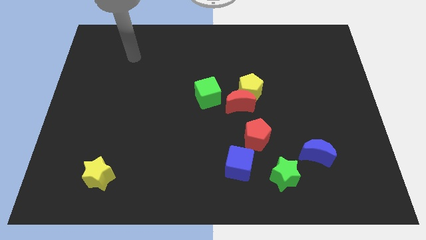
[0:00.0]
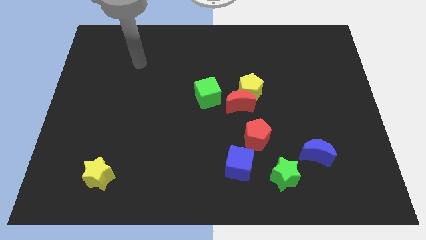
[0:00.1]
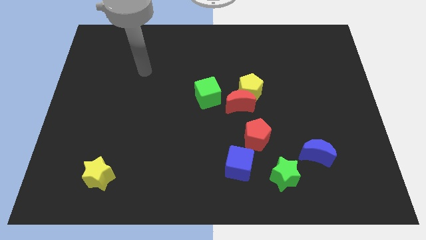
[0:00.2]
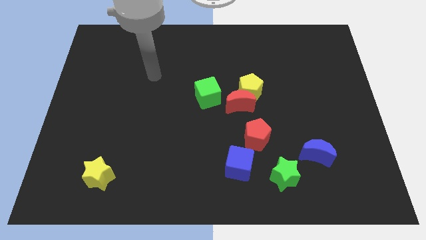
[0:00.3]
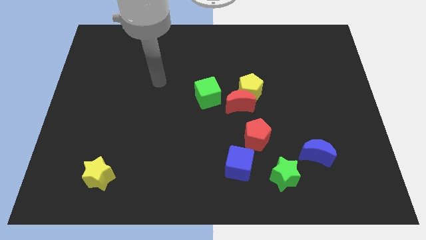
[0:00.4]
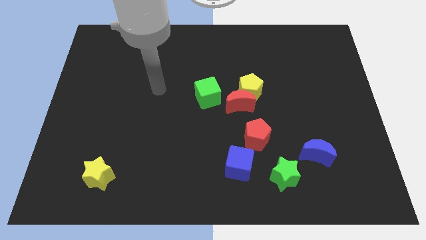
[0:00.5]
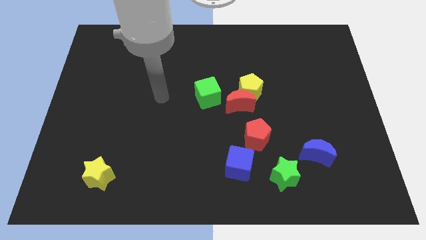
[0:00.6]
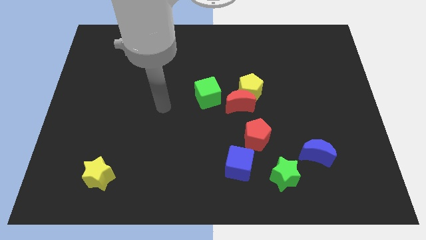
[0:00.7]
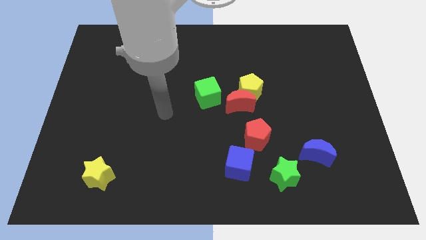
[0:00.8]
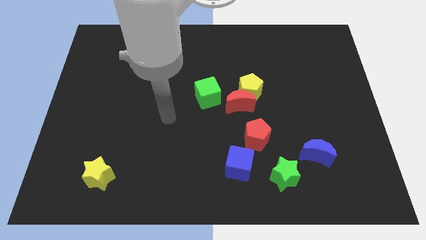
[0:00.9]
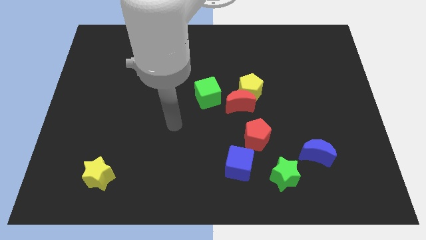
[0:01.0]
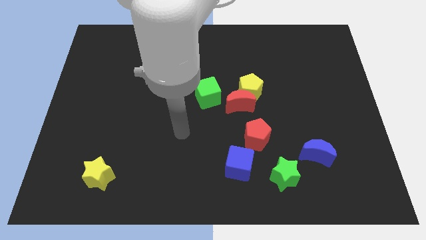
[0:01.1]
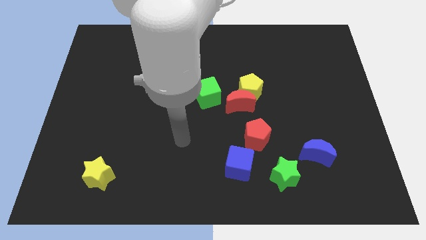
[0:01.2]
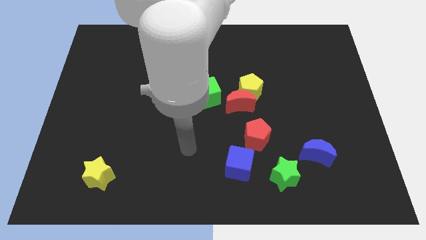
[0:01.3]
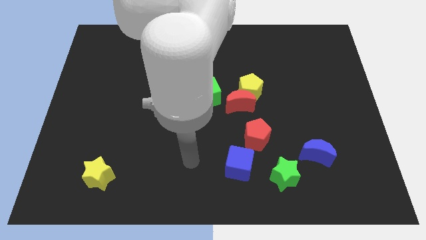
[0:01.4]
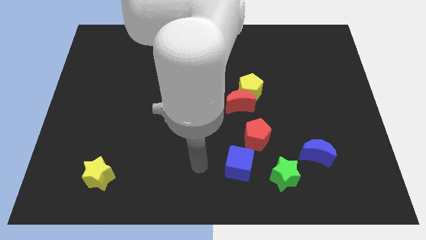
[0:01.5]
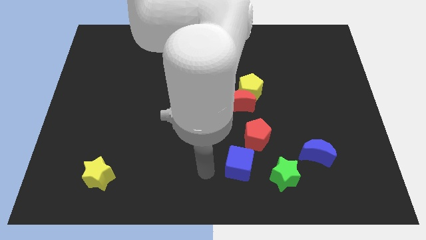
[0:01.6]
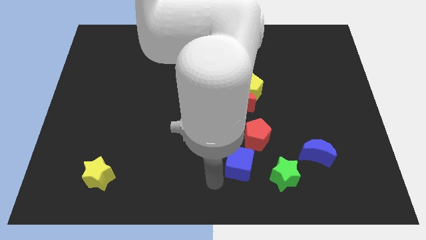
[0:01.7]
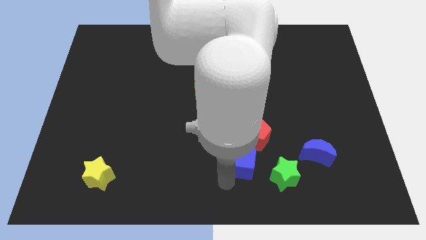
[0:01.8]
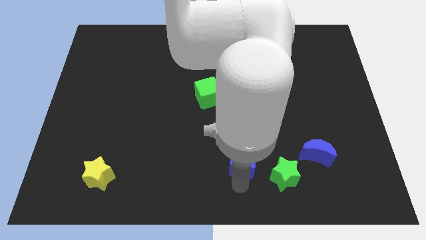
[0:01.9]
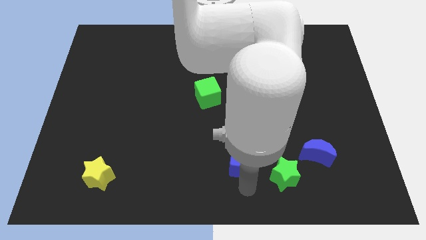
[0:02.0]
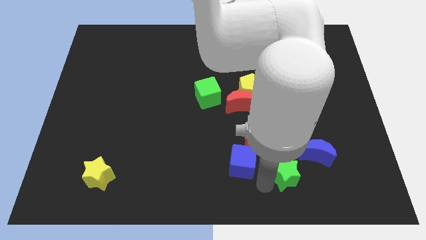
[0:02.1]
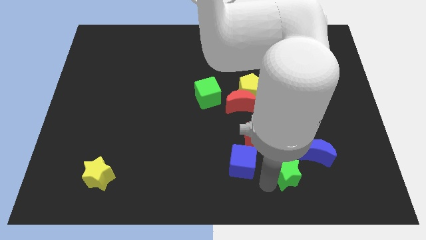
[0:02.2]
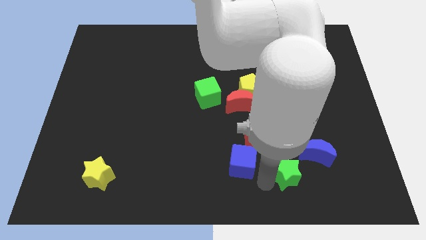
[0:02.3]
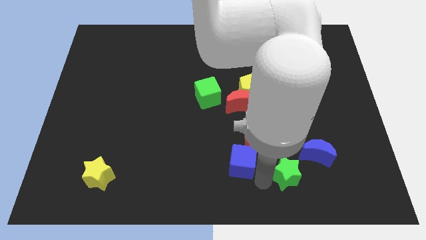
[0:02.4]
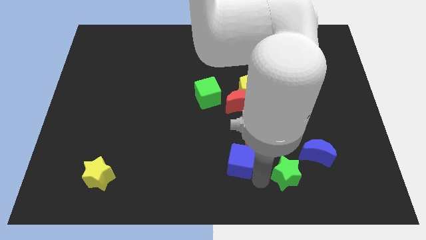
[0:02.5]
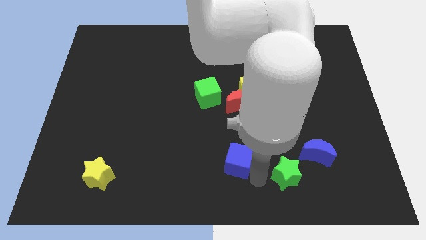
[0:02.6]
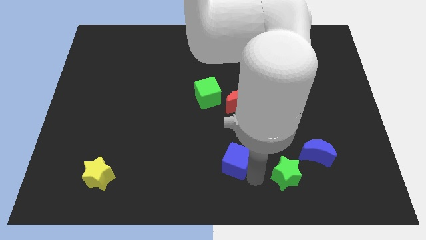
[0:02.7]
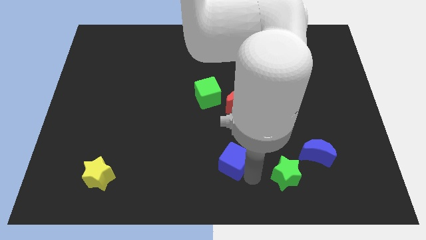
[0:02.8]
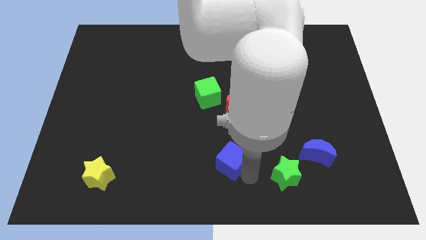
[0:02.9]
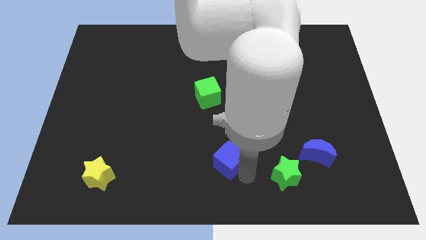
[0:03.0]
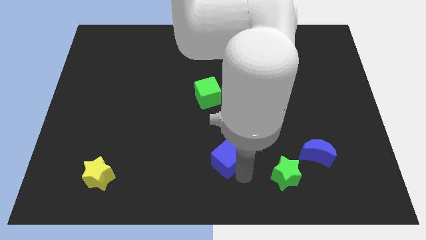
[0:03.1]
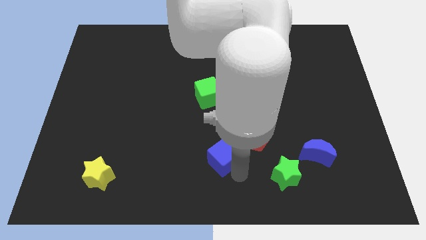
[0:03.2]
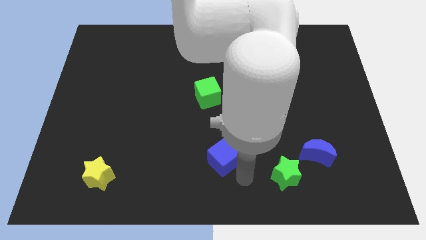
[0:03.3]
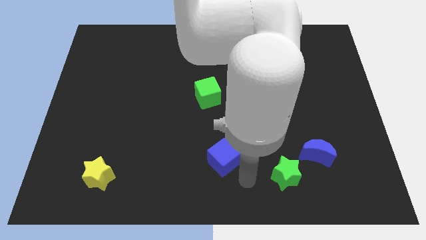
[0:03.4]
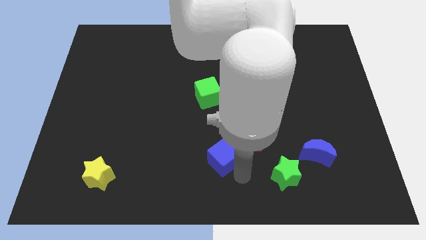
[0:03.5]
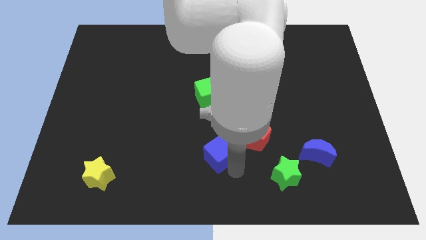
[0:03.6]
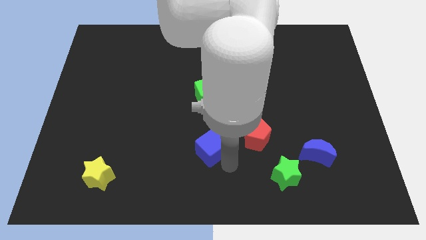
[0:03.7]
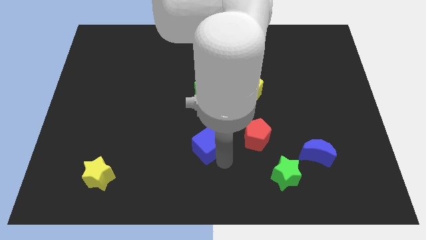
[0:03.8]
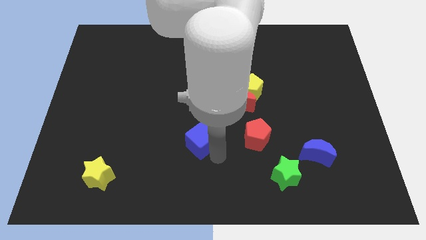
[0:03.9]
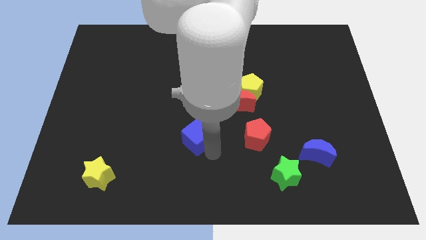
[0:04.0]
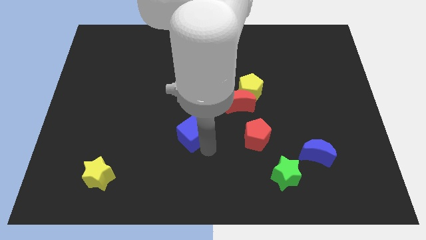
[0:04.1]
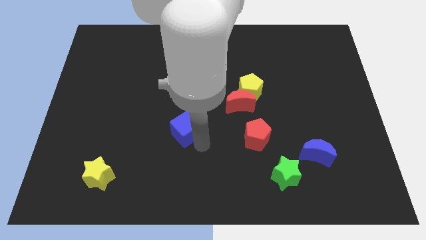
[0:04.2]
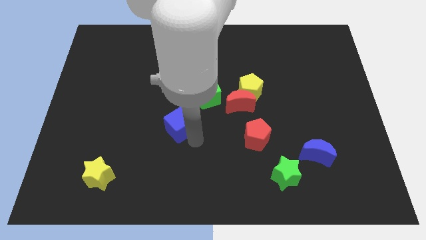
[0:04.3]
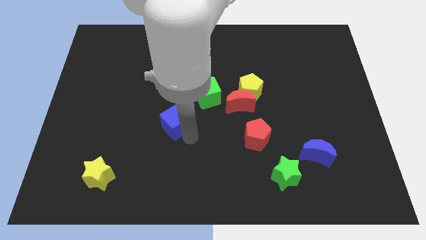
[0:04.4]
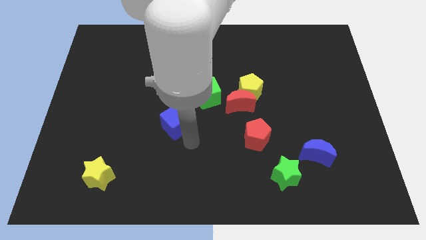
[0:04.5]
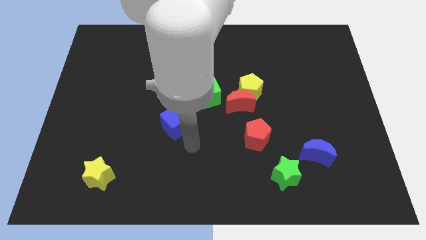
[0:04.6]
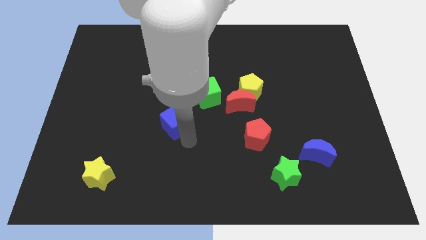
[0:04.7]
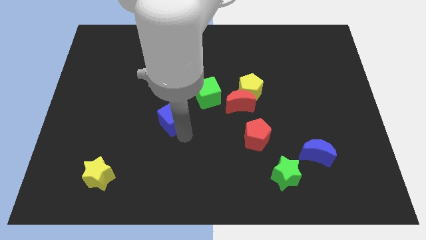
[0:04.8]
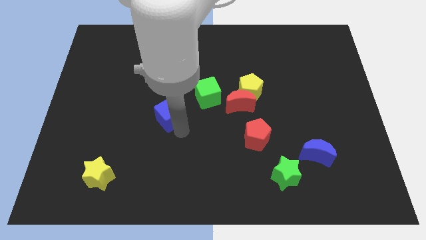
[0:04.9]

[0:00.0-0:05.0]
slide the blue cube up and to the left diagonally

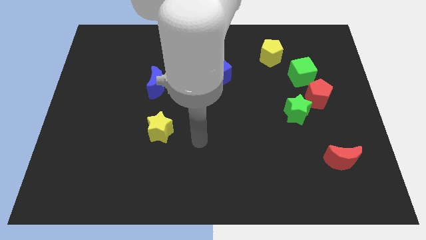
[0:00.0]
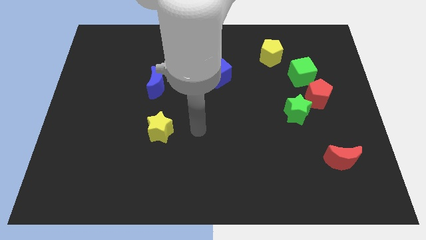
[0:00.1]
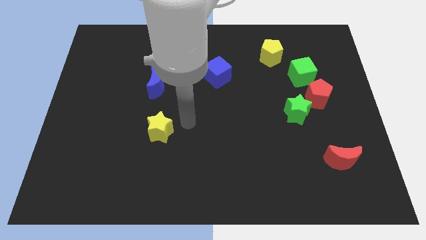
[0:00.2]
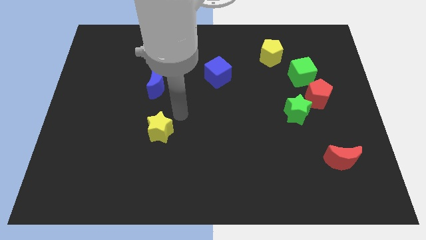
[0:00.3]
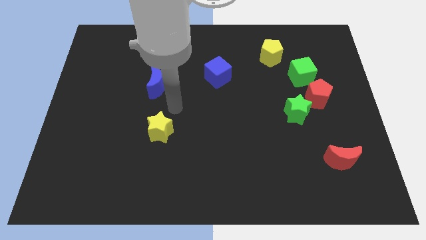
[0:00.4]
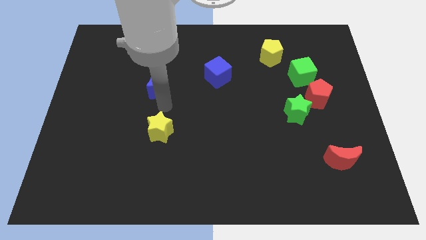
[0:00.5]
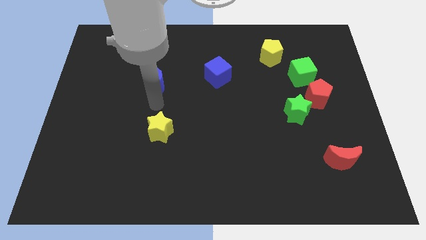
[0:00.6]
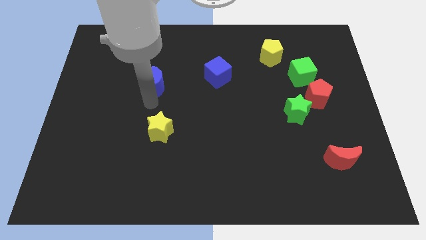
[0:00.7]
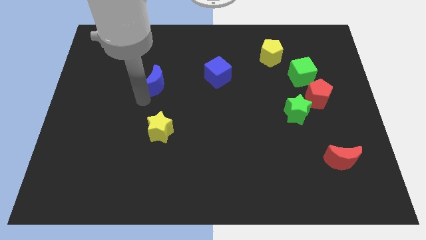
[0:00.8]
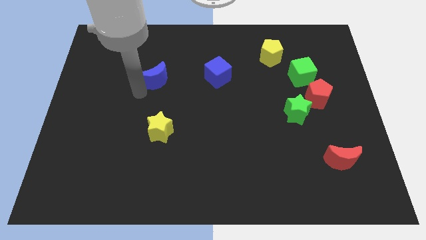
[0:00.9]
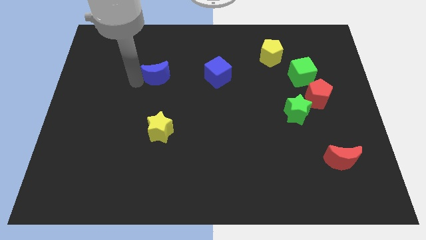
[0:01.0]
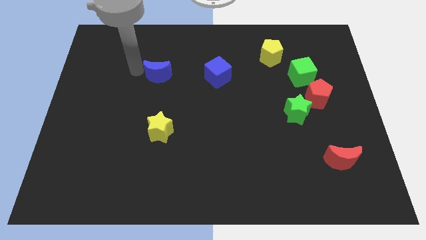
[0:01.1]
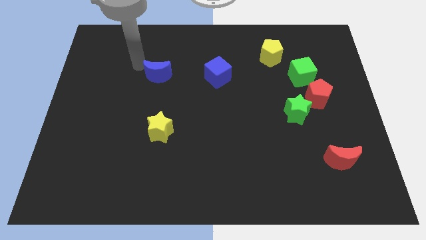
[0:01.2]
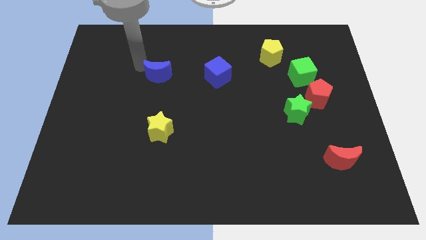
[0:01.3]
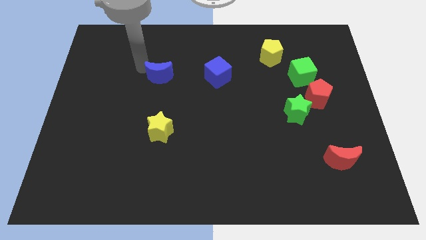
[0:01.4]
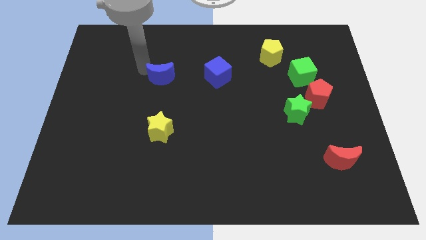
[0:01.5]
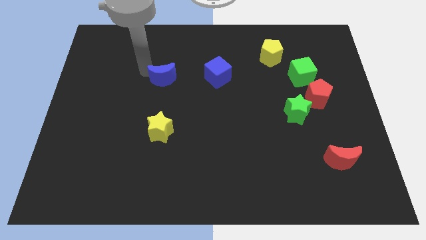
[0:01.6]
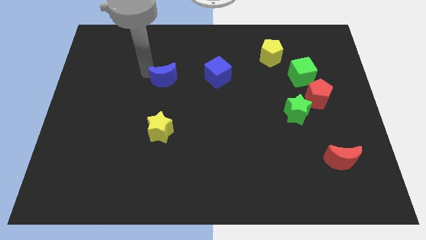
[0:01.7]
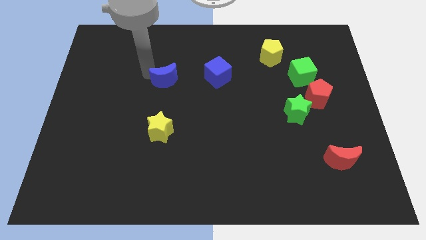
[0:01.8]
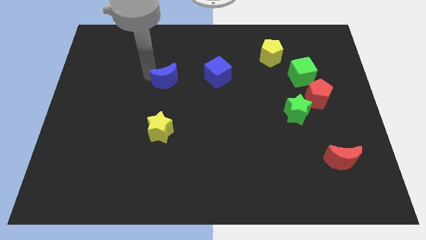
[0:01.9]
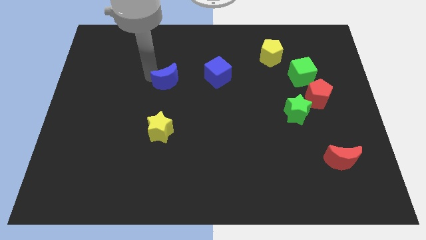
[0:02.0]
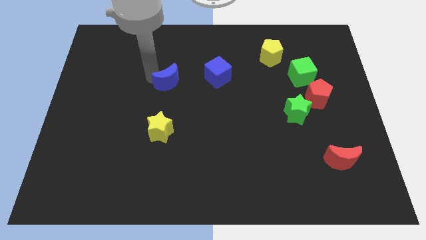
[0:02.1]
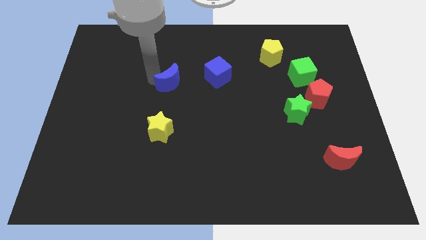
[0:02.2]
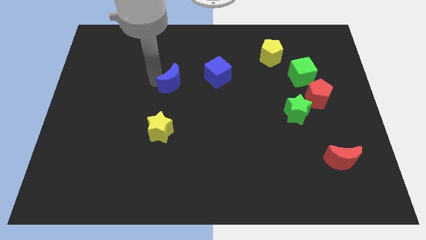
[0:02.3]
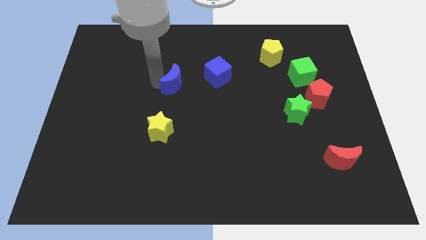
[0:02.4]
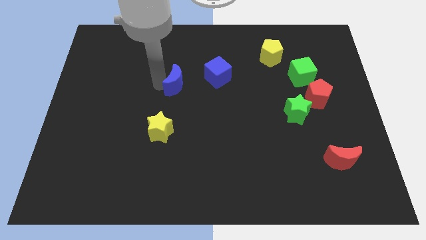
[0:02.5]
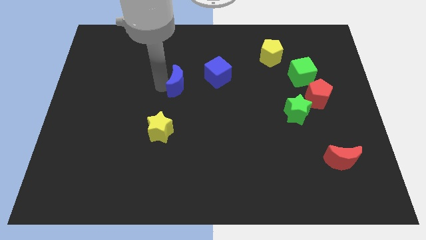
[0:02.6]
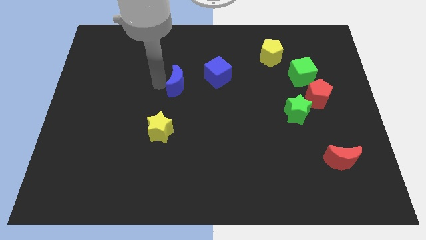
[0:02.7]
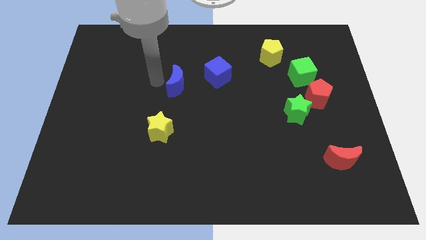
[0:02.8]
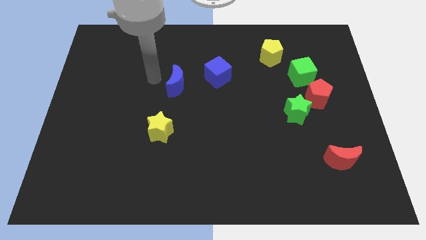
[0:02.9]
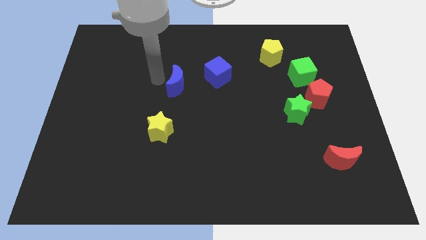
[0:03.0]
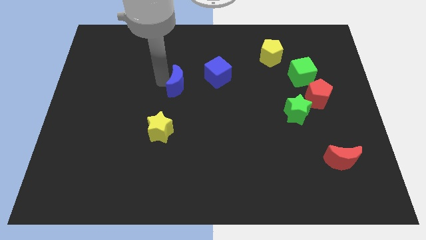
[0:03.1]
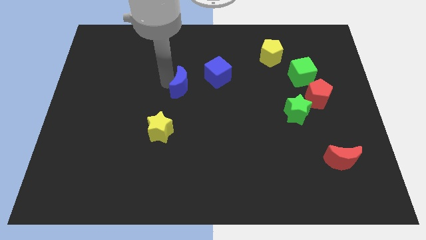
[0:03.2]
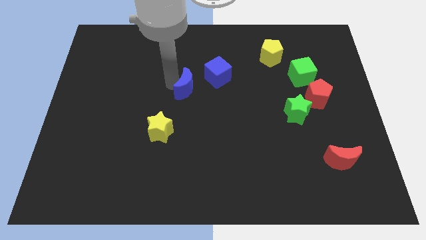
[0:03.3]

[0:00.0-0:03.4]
slightly slide the blue moon right
